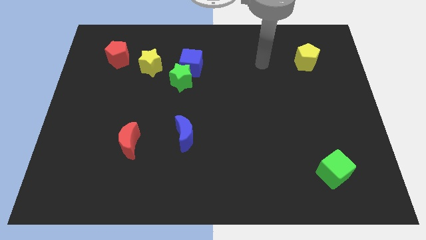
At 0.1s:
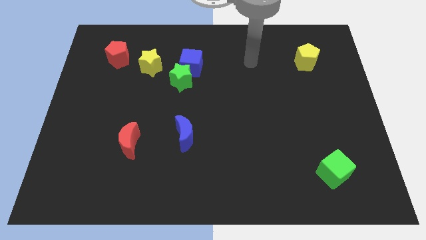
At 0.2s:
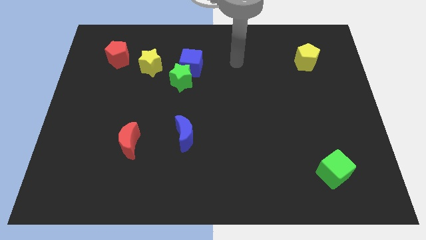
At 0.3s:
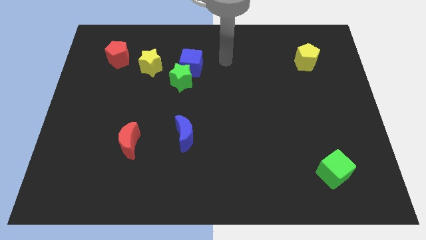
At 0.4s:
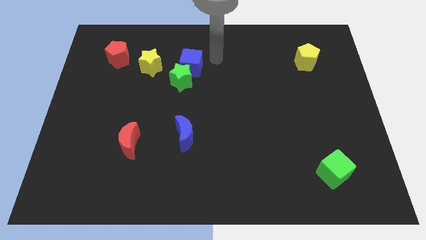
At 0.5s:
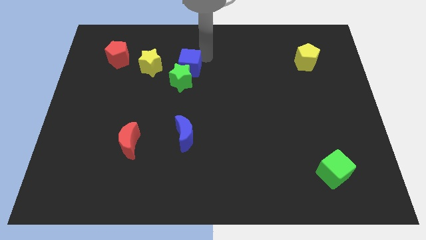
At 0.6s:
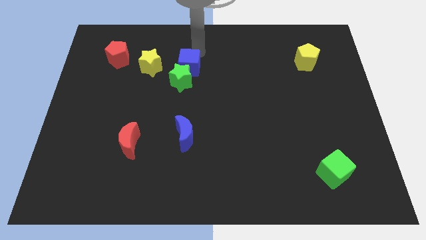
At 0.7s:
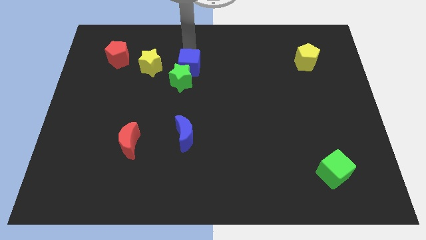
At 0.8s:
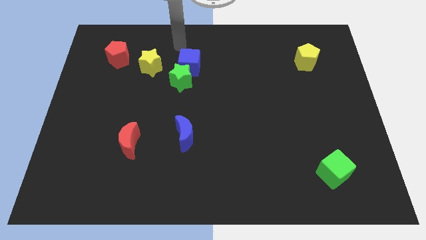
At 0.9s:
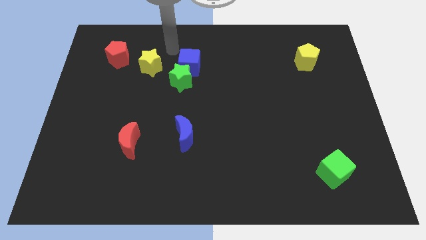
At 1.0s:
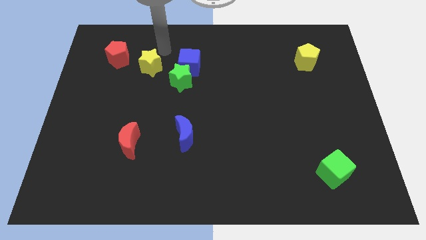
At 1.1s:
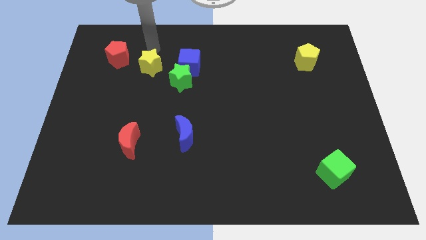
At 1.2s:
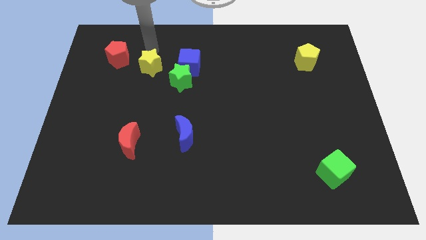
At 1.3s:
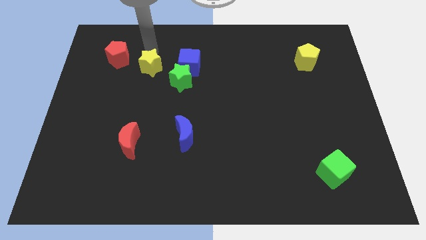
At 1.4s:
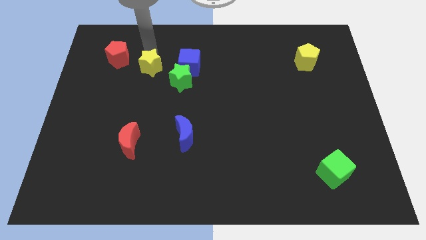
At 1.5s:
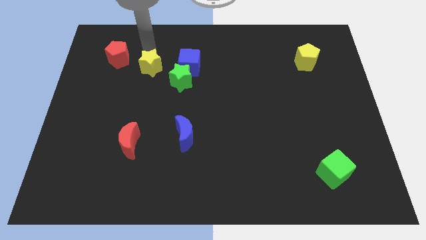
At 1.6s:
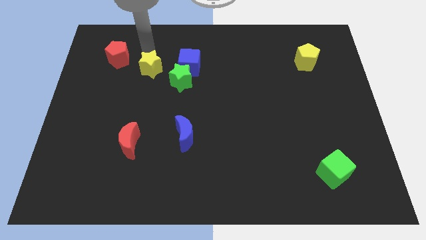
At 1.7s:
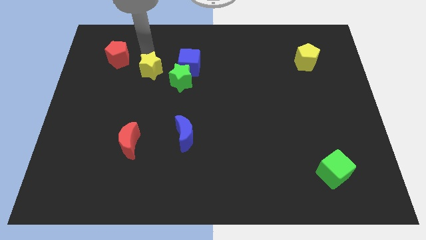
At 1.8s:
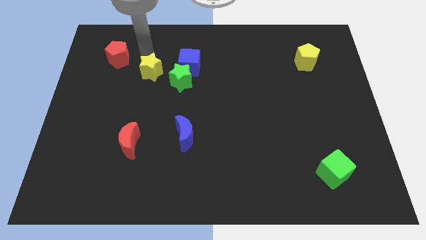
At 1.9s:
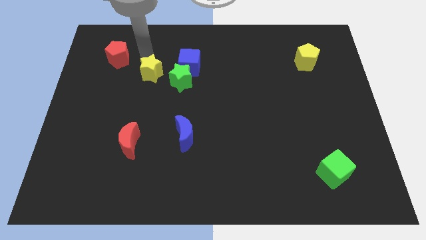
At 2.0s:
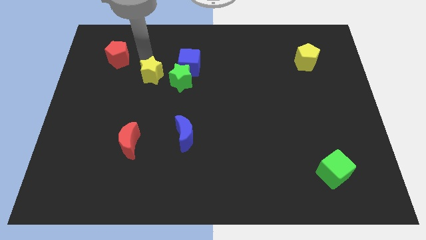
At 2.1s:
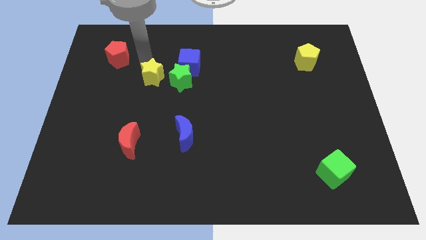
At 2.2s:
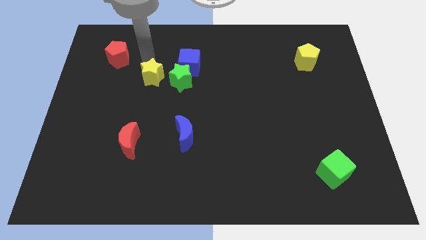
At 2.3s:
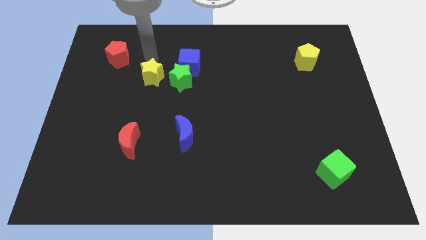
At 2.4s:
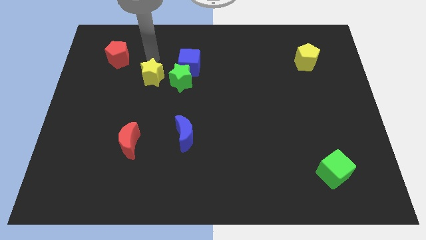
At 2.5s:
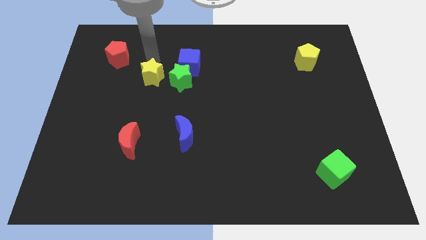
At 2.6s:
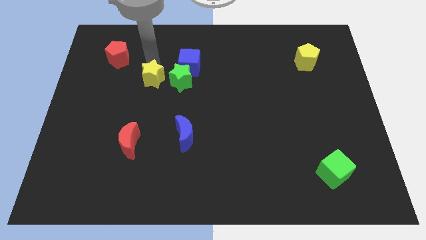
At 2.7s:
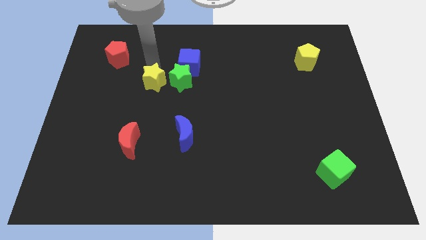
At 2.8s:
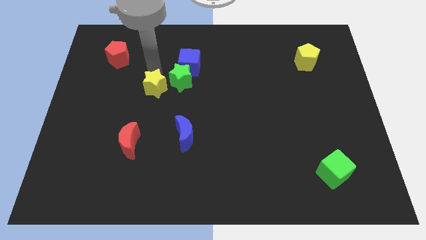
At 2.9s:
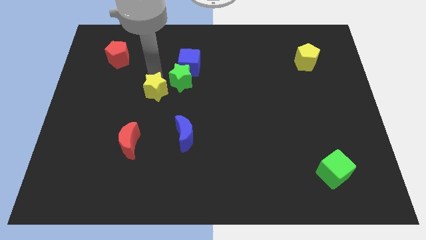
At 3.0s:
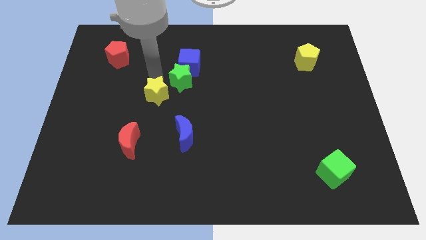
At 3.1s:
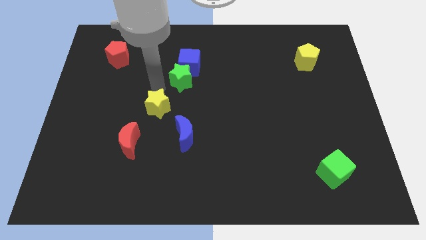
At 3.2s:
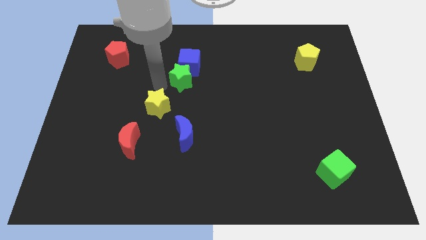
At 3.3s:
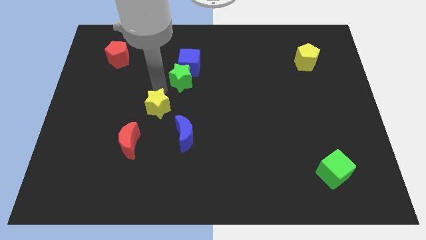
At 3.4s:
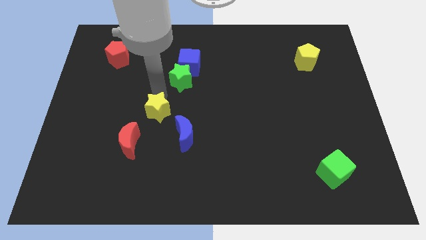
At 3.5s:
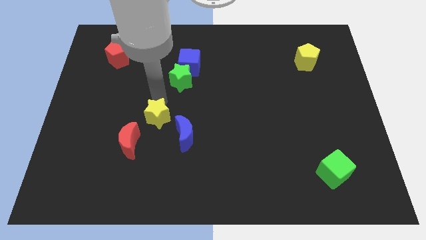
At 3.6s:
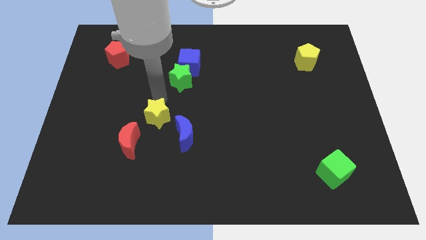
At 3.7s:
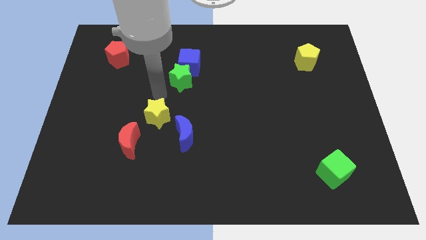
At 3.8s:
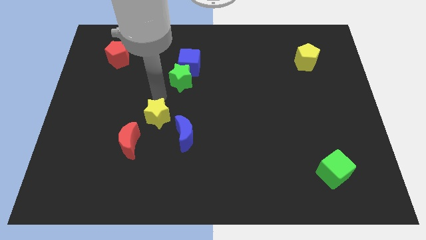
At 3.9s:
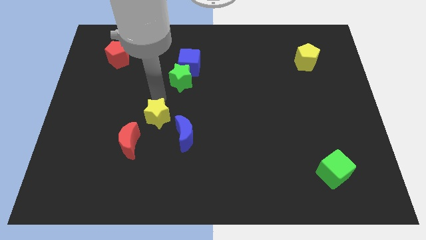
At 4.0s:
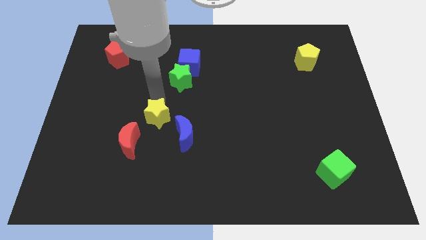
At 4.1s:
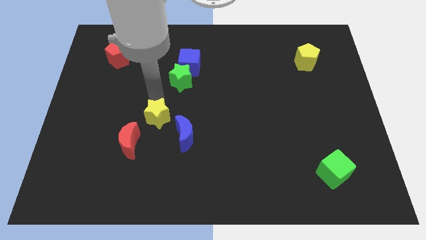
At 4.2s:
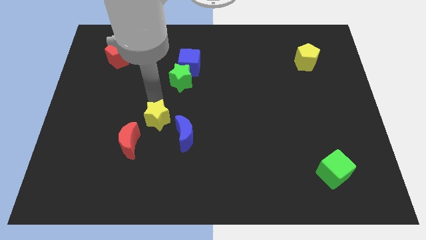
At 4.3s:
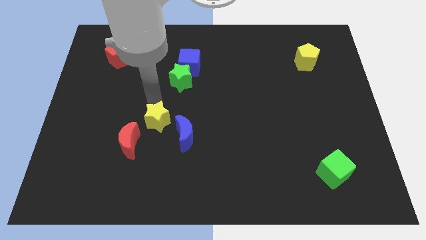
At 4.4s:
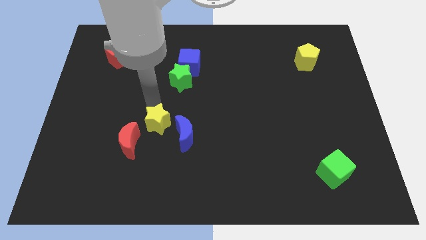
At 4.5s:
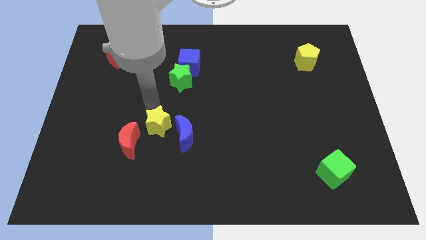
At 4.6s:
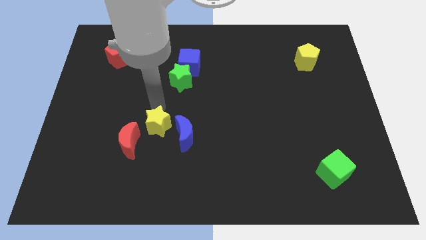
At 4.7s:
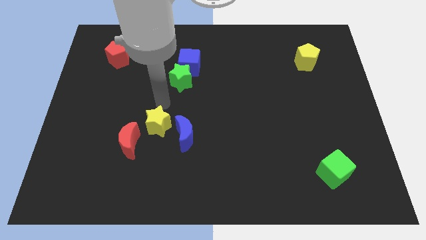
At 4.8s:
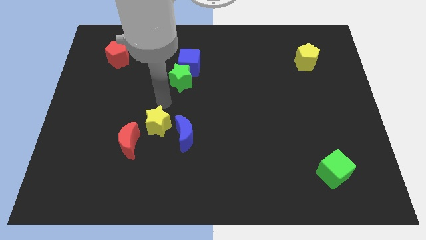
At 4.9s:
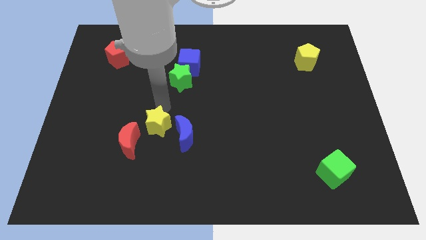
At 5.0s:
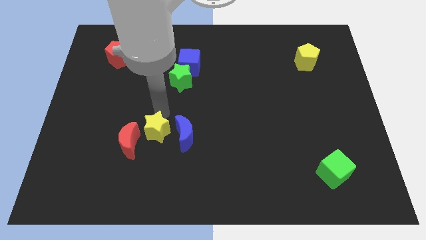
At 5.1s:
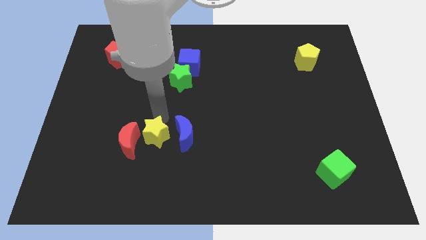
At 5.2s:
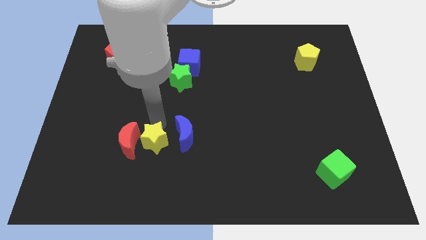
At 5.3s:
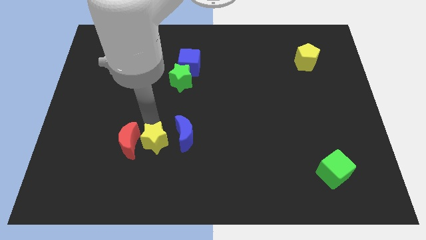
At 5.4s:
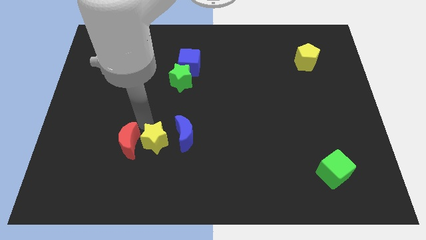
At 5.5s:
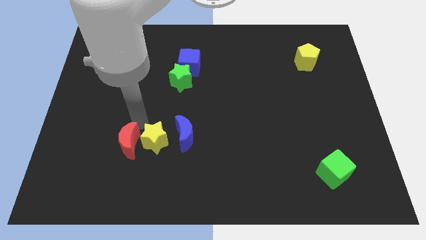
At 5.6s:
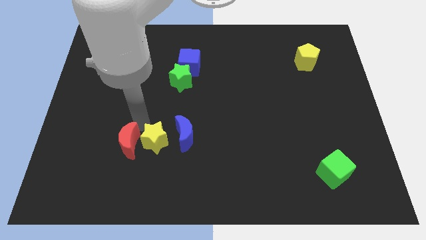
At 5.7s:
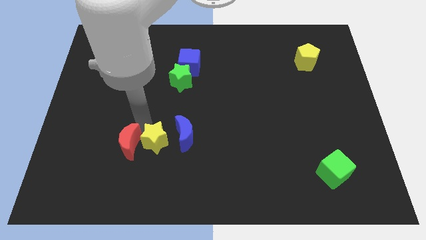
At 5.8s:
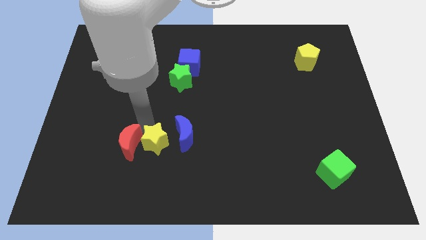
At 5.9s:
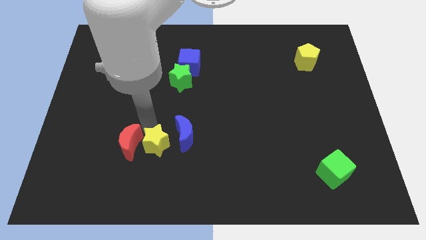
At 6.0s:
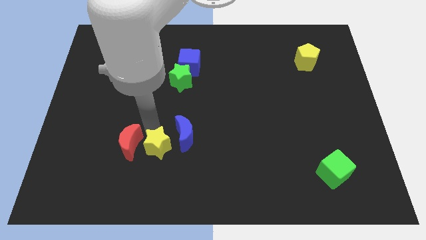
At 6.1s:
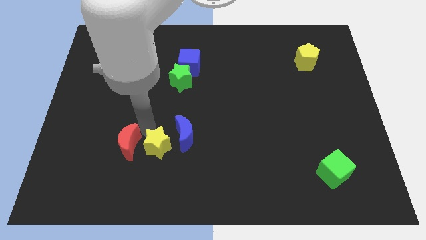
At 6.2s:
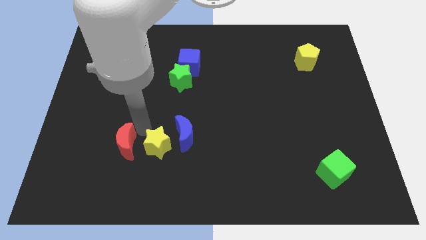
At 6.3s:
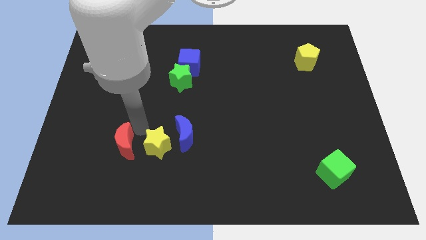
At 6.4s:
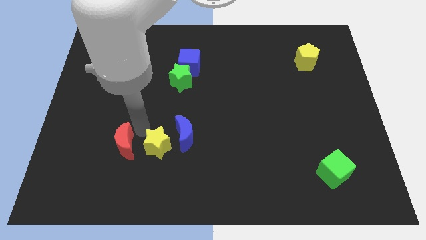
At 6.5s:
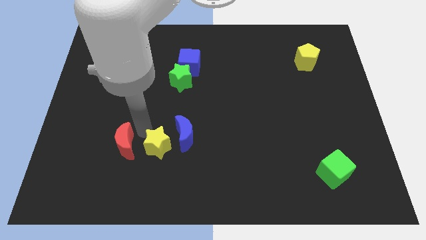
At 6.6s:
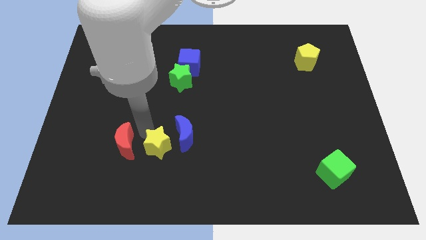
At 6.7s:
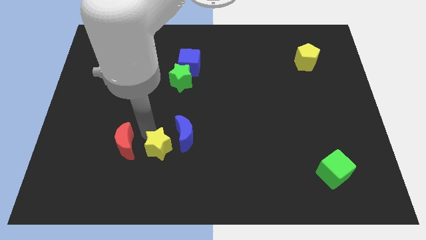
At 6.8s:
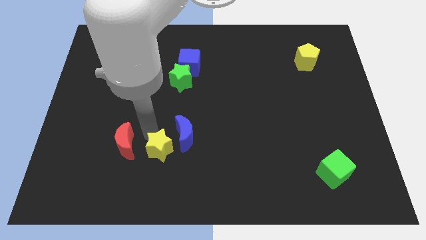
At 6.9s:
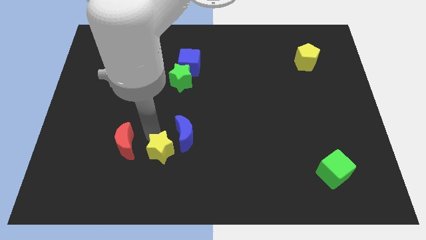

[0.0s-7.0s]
move the yellow star below the blue moon

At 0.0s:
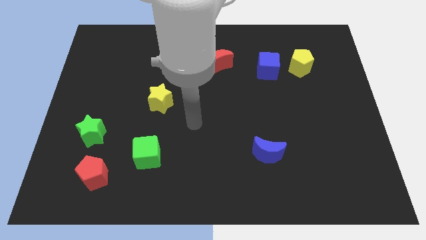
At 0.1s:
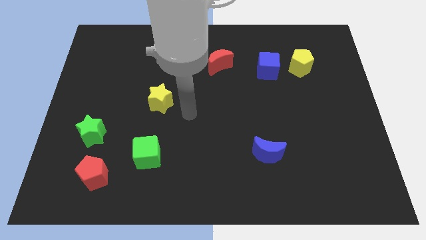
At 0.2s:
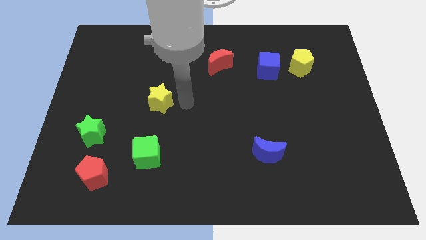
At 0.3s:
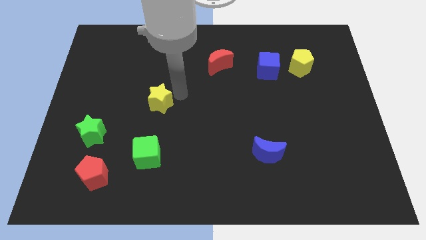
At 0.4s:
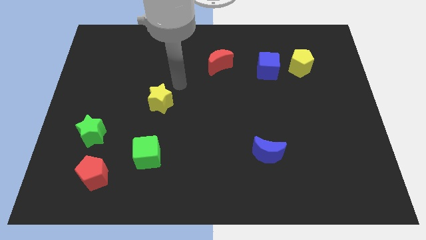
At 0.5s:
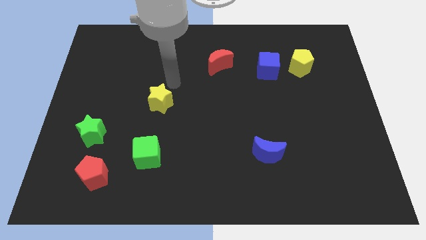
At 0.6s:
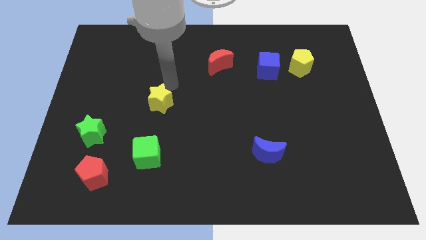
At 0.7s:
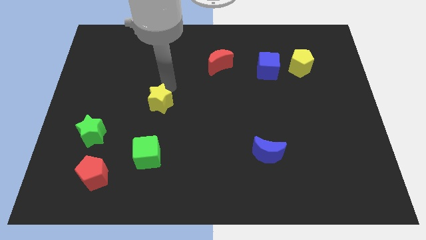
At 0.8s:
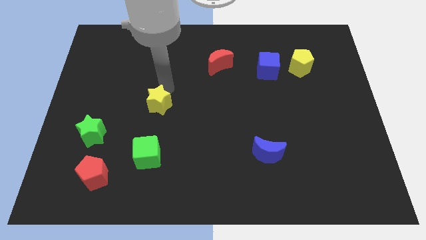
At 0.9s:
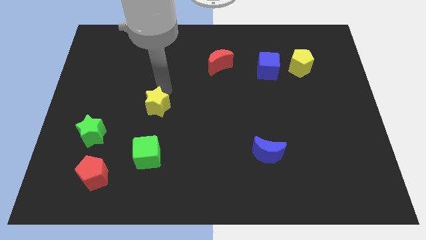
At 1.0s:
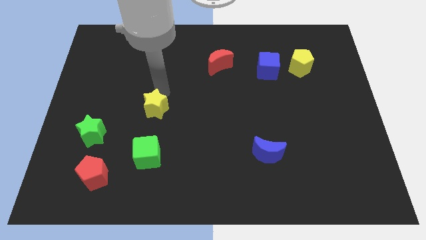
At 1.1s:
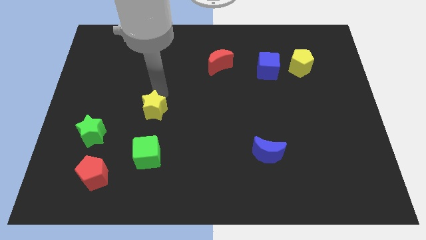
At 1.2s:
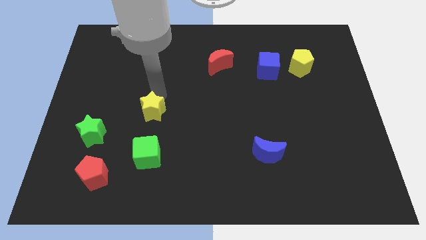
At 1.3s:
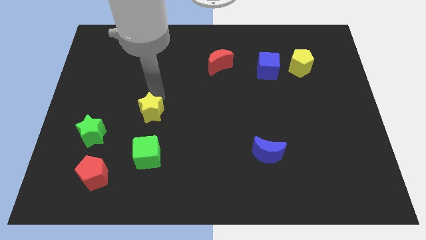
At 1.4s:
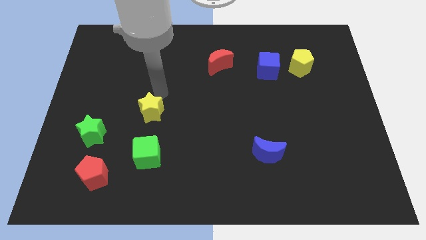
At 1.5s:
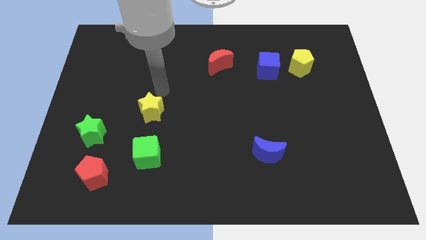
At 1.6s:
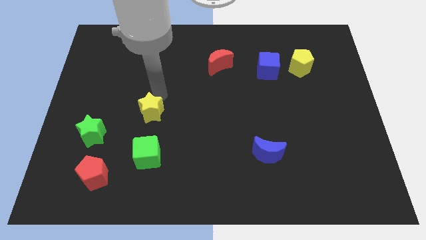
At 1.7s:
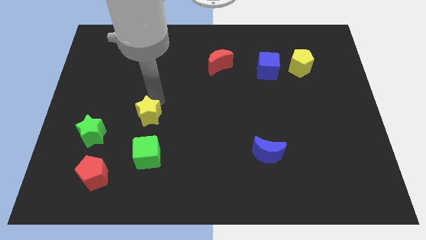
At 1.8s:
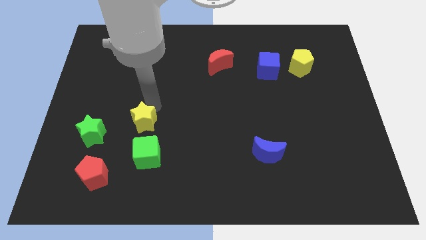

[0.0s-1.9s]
put the yellow star to the right side of the green star
